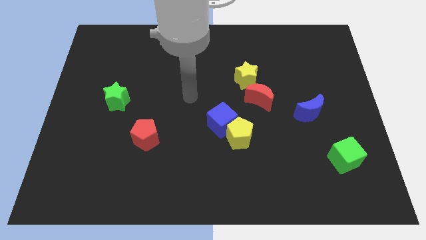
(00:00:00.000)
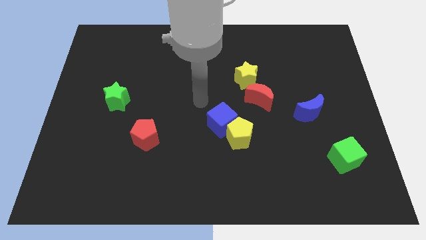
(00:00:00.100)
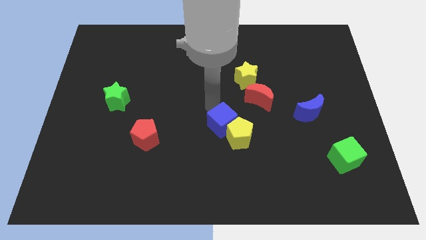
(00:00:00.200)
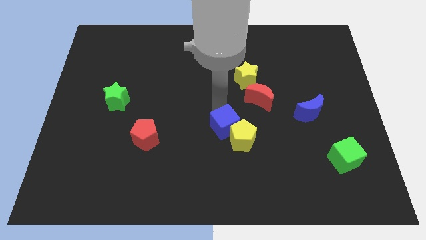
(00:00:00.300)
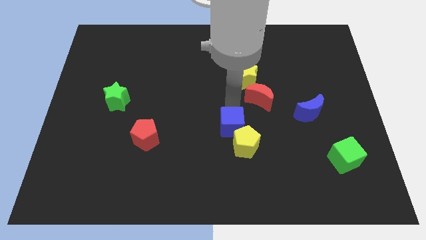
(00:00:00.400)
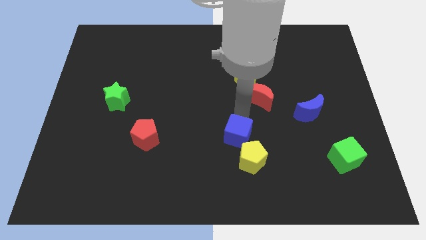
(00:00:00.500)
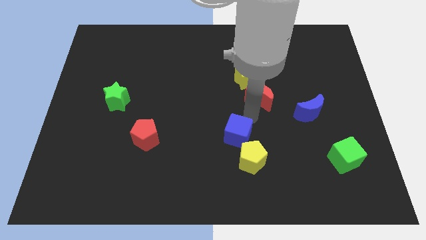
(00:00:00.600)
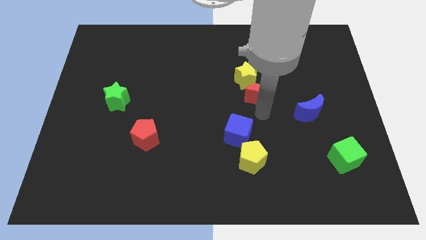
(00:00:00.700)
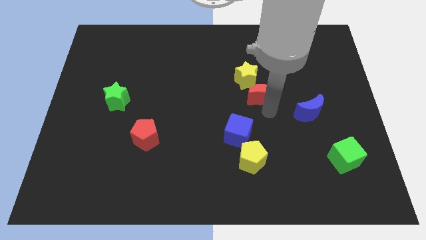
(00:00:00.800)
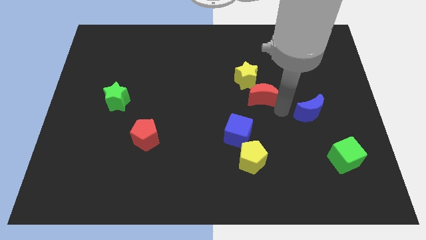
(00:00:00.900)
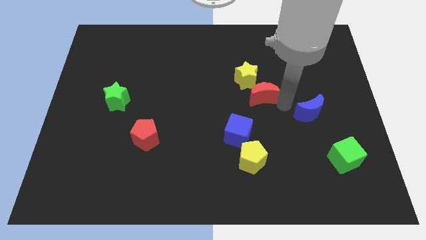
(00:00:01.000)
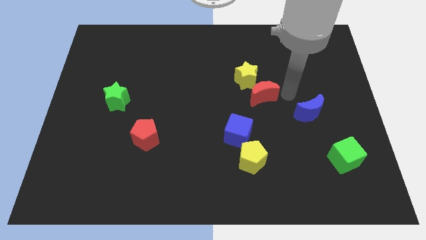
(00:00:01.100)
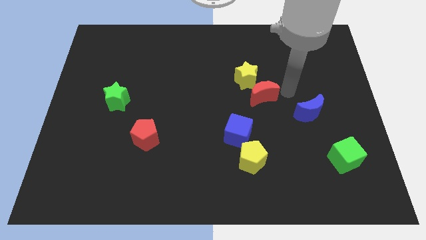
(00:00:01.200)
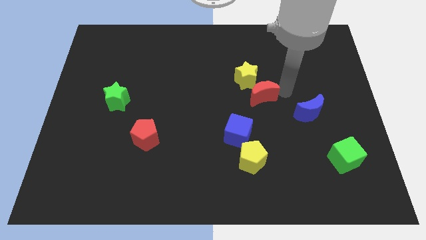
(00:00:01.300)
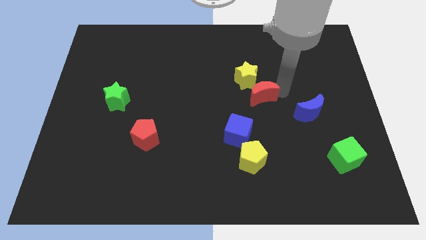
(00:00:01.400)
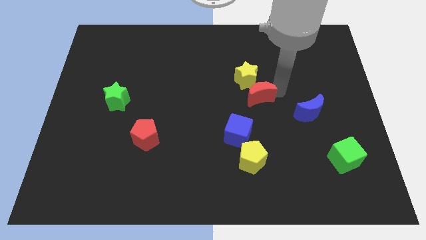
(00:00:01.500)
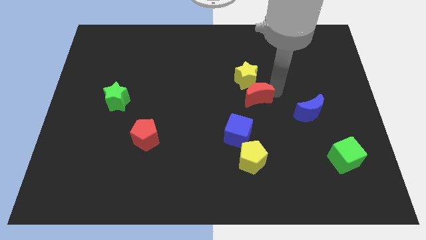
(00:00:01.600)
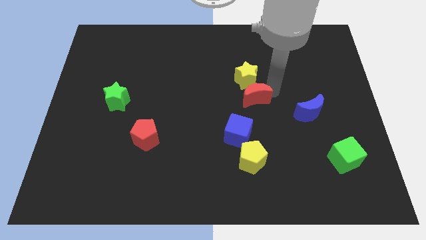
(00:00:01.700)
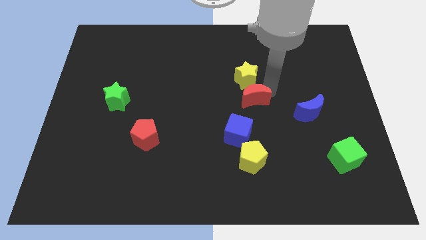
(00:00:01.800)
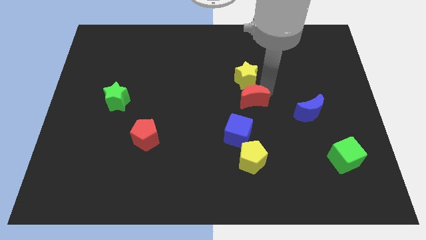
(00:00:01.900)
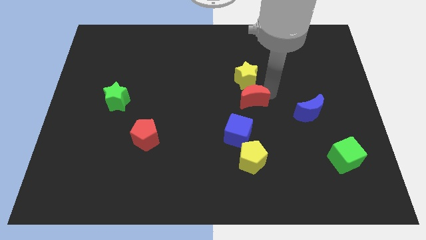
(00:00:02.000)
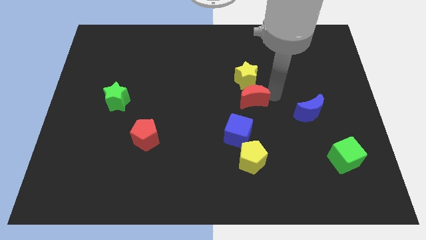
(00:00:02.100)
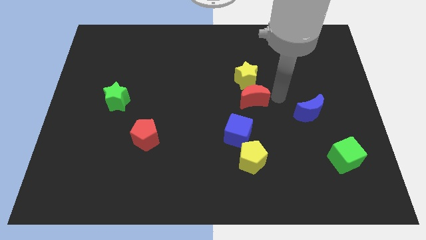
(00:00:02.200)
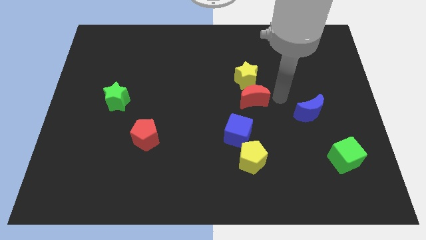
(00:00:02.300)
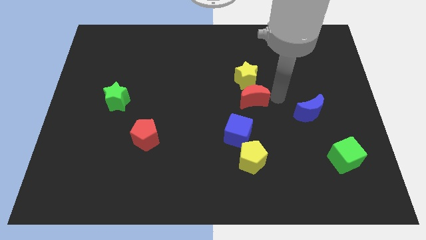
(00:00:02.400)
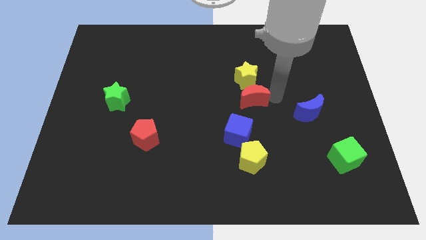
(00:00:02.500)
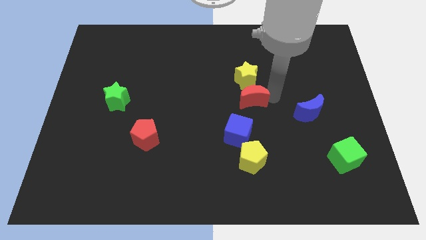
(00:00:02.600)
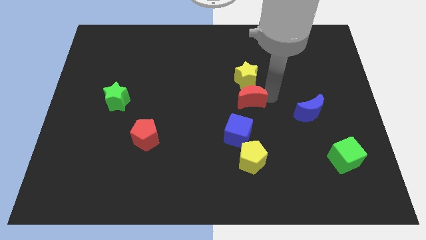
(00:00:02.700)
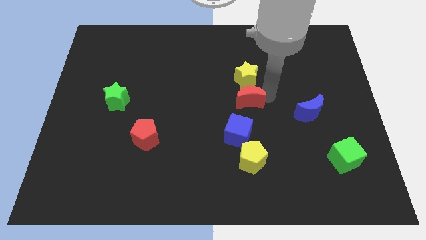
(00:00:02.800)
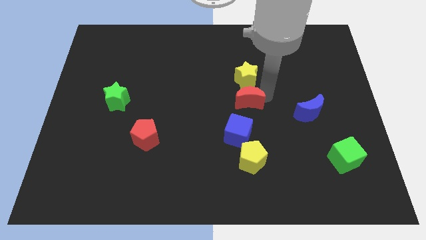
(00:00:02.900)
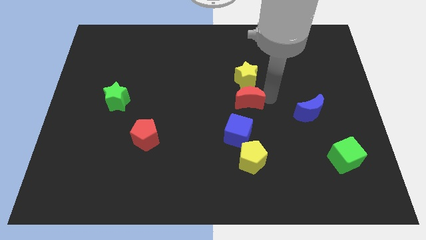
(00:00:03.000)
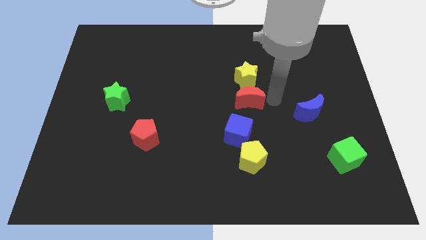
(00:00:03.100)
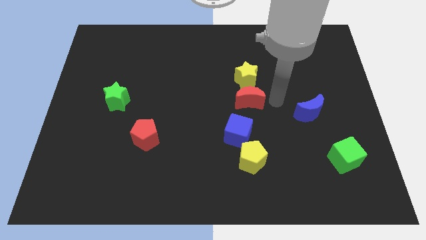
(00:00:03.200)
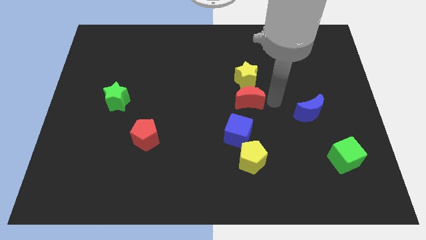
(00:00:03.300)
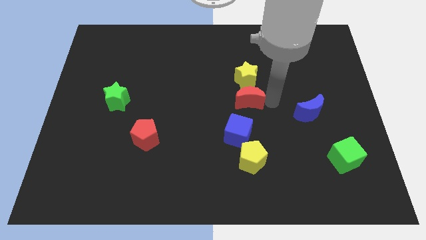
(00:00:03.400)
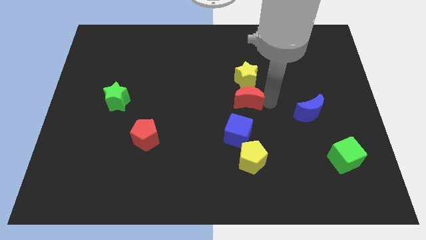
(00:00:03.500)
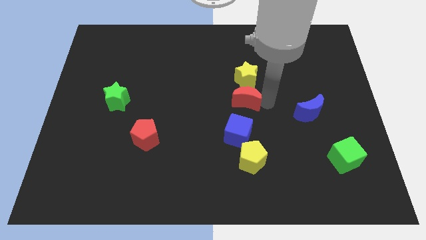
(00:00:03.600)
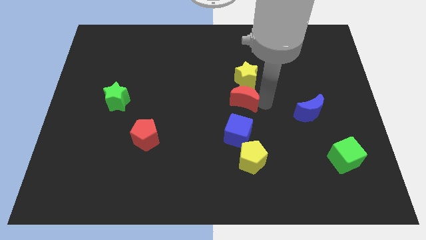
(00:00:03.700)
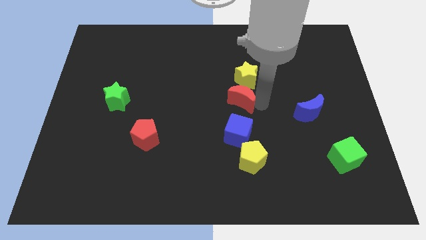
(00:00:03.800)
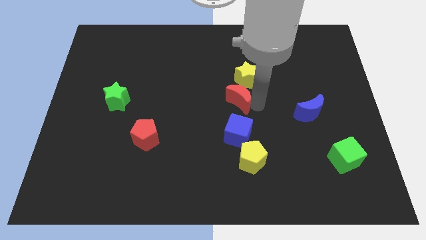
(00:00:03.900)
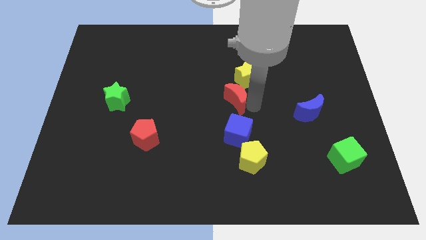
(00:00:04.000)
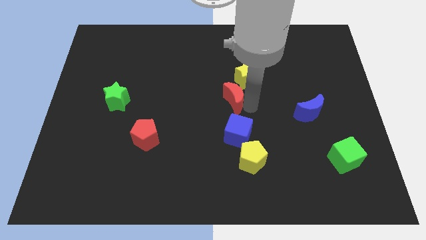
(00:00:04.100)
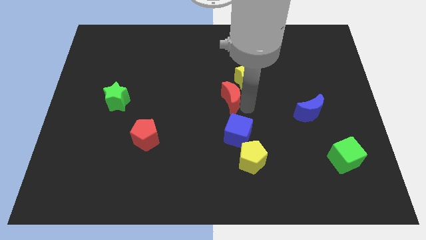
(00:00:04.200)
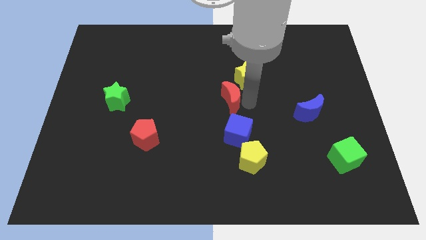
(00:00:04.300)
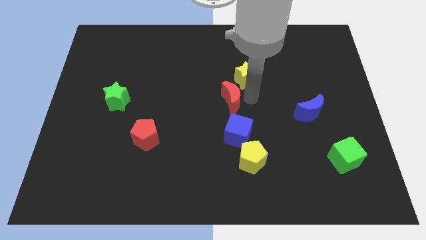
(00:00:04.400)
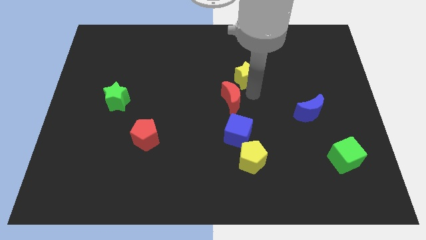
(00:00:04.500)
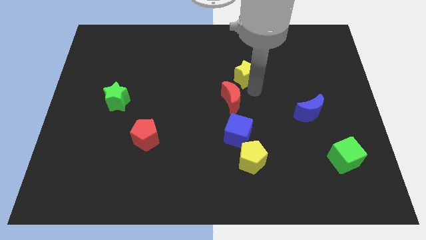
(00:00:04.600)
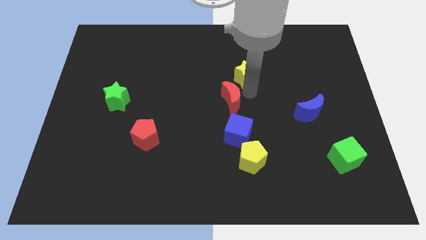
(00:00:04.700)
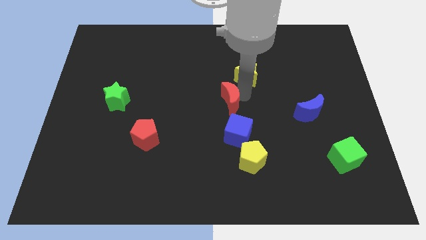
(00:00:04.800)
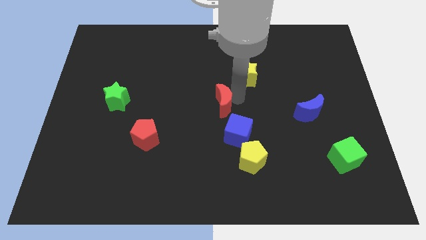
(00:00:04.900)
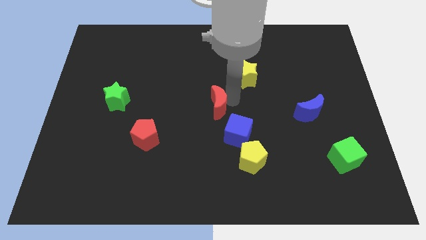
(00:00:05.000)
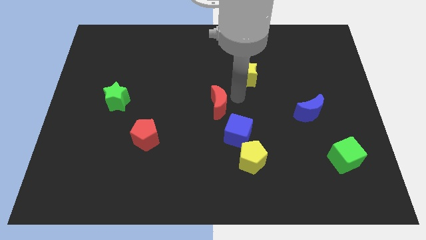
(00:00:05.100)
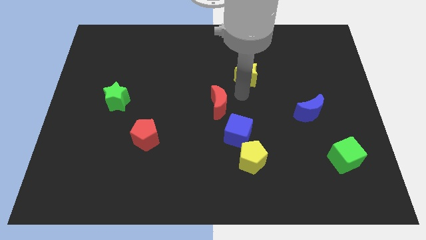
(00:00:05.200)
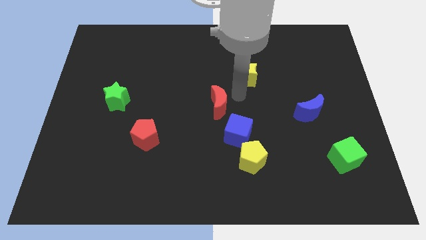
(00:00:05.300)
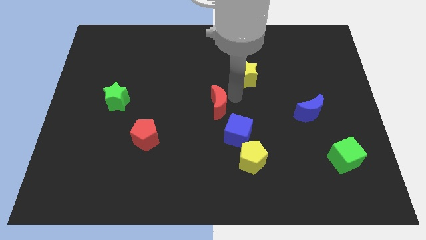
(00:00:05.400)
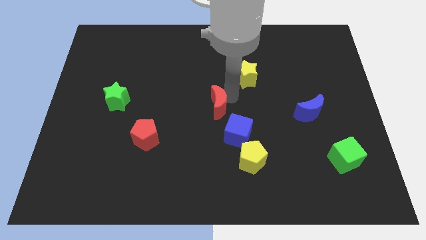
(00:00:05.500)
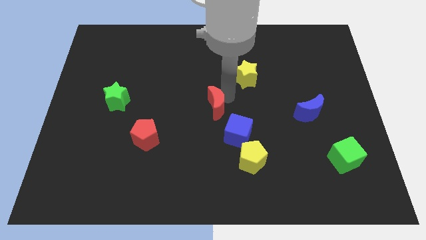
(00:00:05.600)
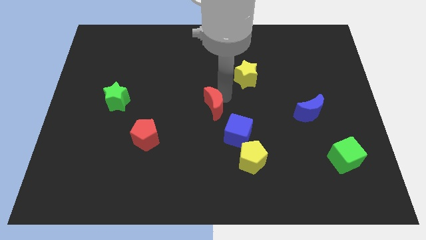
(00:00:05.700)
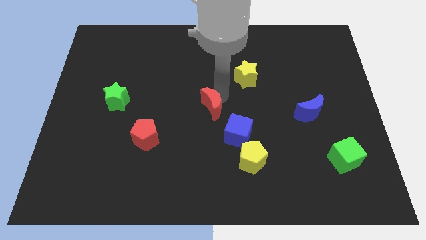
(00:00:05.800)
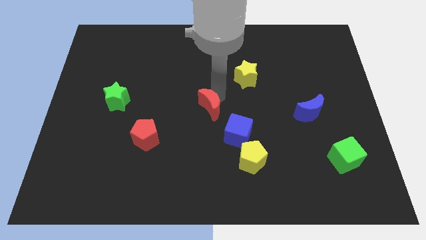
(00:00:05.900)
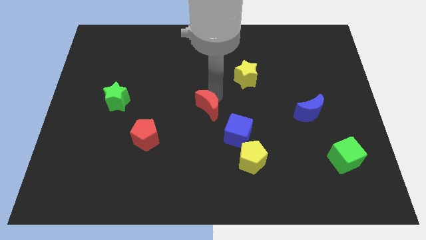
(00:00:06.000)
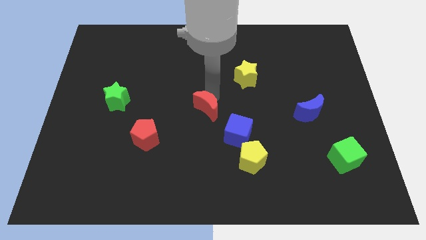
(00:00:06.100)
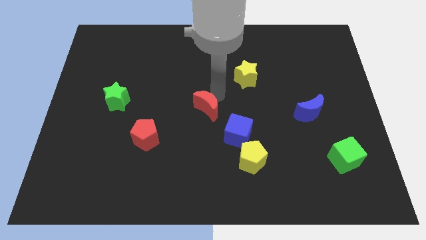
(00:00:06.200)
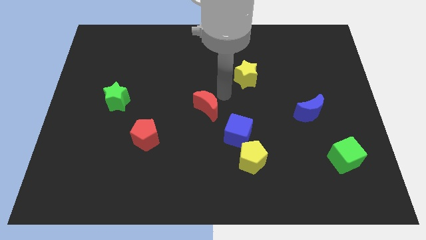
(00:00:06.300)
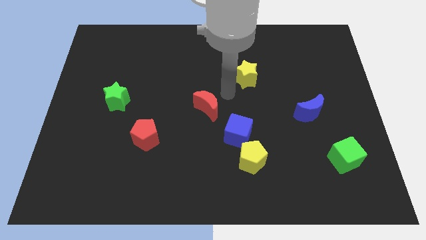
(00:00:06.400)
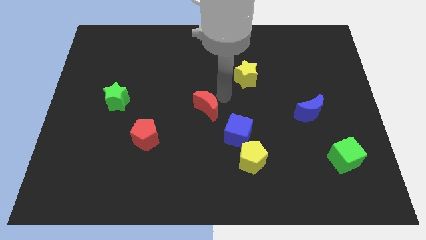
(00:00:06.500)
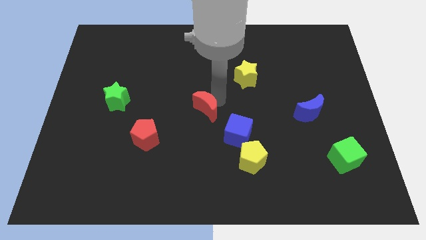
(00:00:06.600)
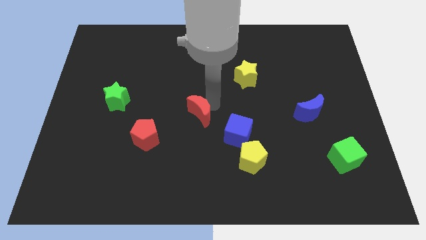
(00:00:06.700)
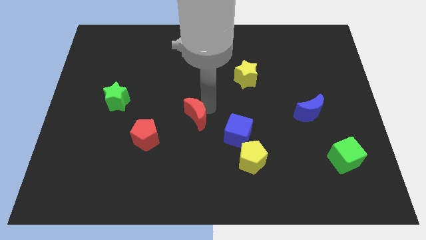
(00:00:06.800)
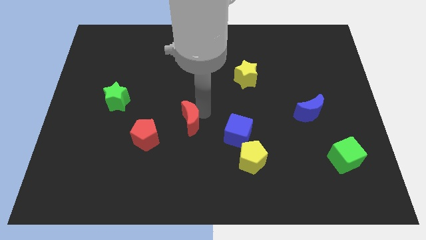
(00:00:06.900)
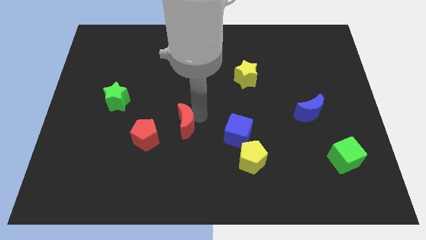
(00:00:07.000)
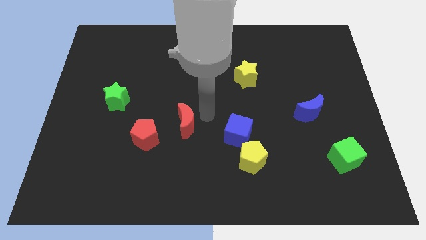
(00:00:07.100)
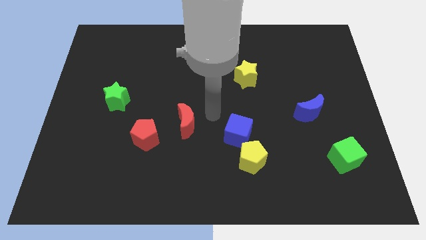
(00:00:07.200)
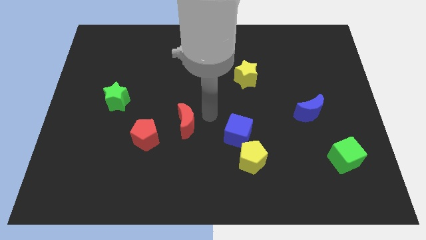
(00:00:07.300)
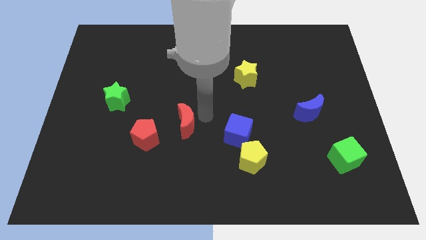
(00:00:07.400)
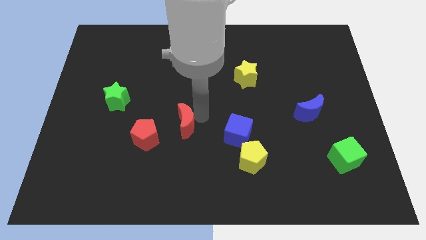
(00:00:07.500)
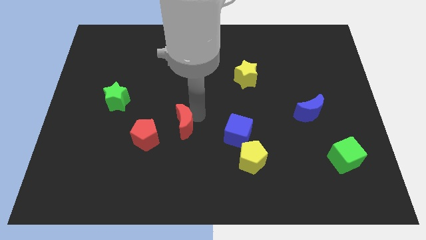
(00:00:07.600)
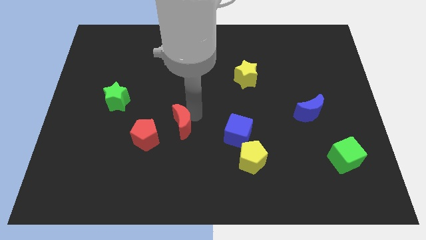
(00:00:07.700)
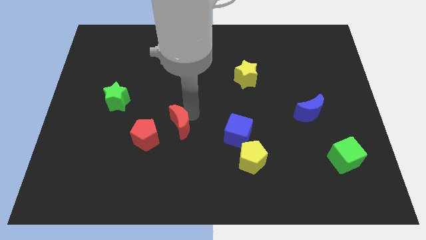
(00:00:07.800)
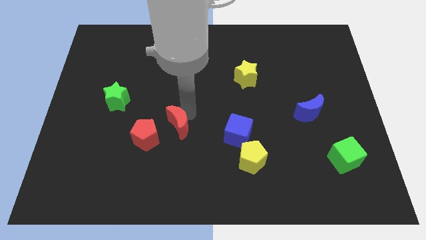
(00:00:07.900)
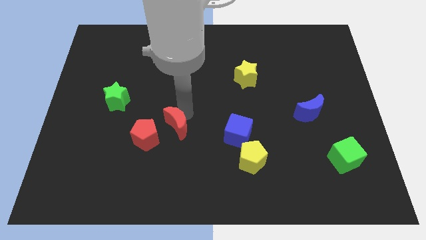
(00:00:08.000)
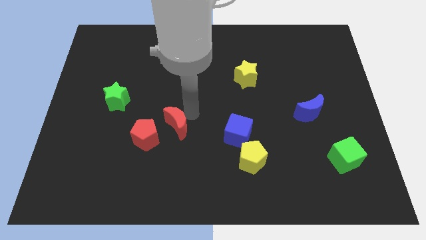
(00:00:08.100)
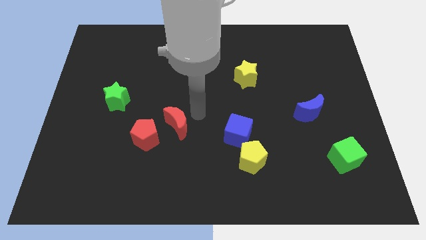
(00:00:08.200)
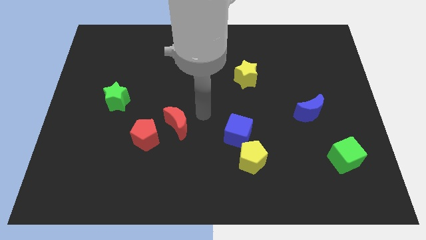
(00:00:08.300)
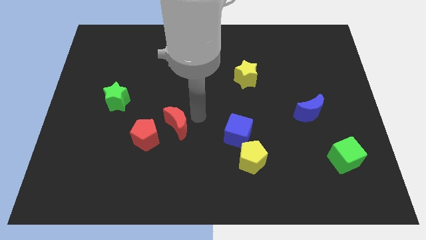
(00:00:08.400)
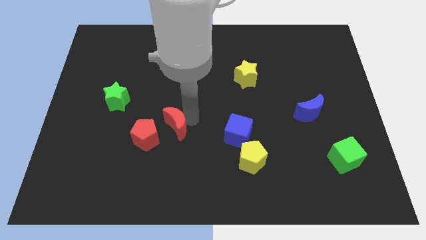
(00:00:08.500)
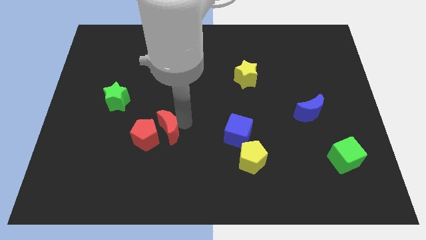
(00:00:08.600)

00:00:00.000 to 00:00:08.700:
push the red moon next to the red pentagon
